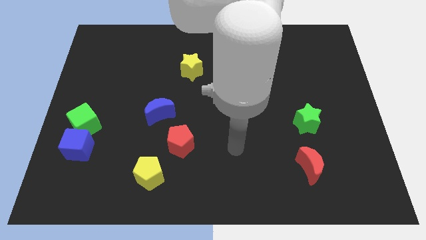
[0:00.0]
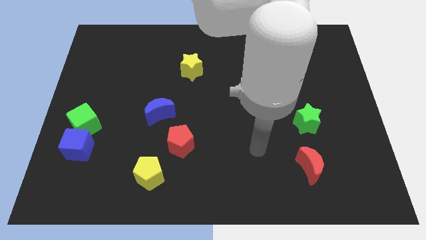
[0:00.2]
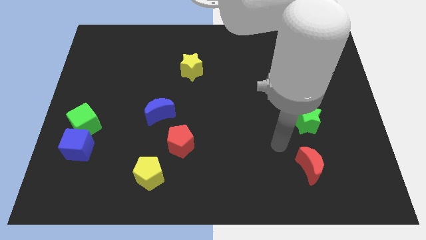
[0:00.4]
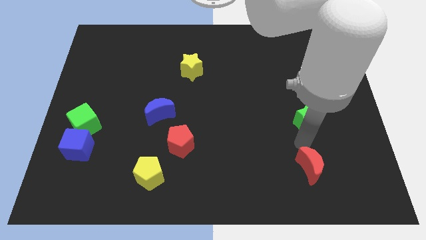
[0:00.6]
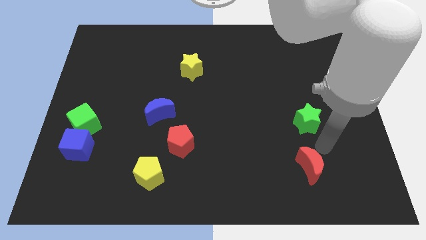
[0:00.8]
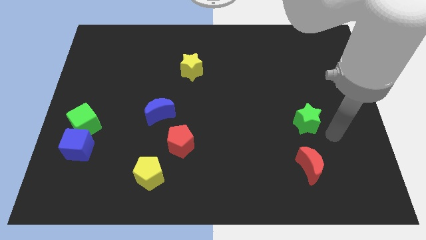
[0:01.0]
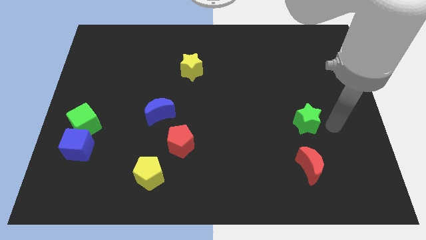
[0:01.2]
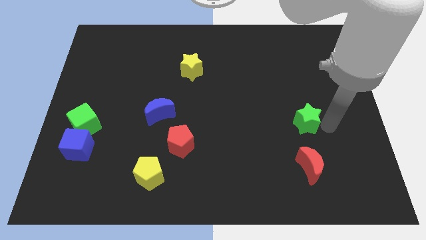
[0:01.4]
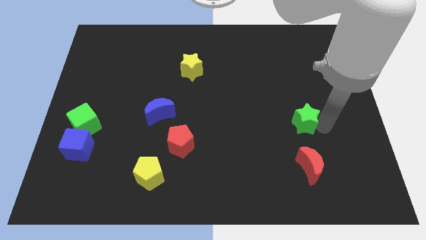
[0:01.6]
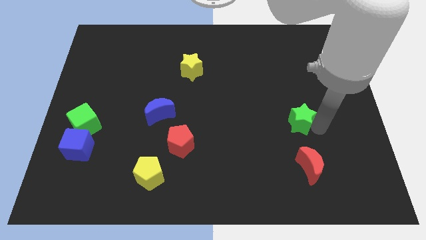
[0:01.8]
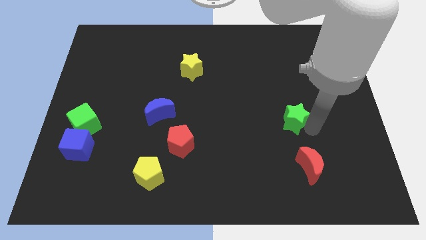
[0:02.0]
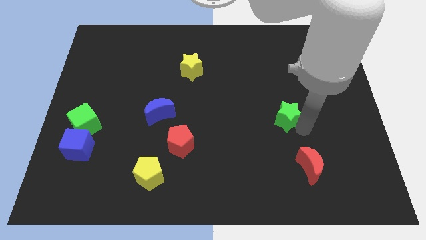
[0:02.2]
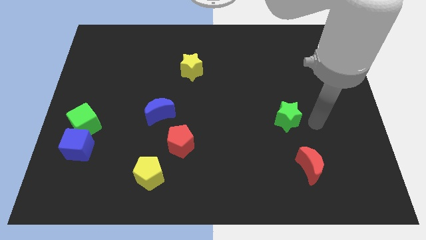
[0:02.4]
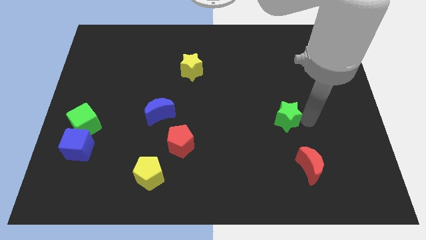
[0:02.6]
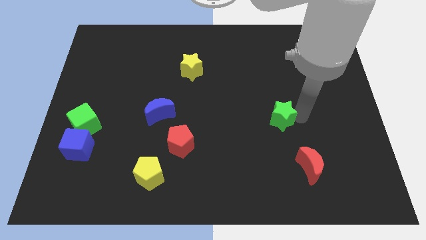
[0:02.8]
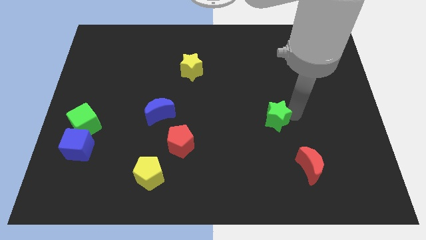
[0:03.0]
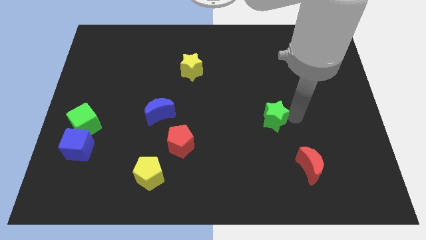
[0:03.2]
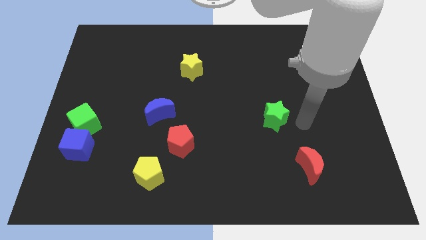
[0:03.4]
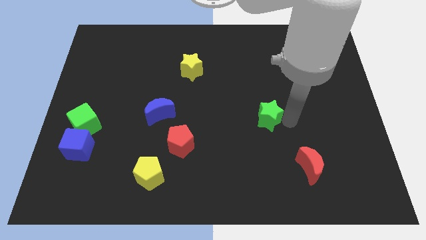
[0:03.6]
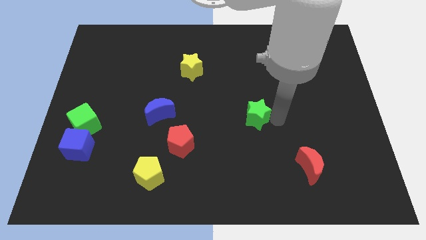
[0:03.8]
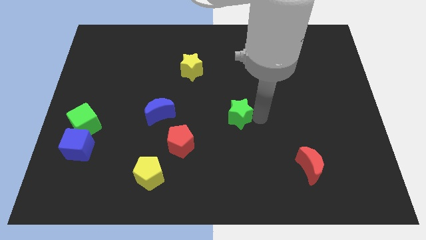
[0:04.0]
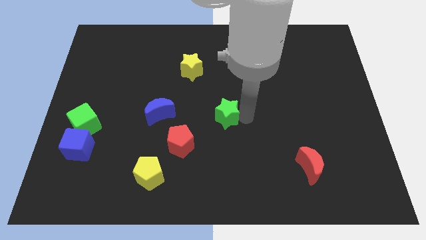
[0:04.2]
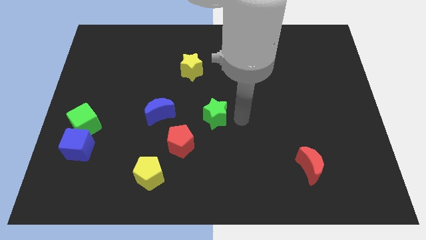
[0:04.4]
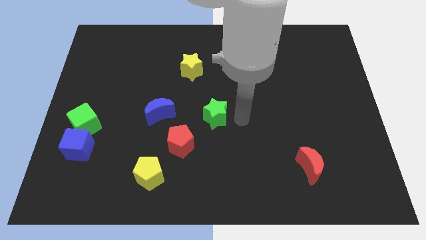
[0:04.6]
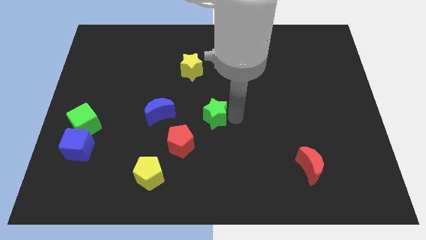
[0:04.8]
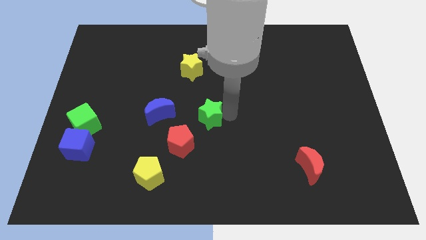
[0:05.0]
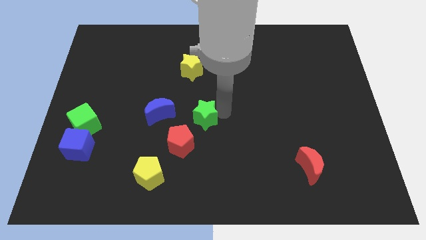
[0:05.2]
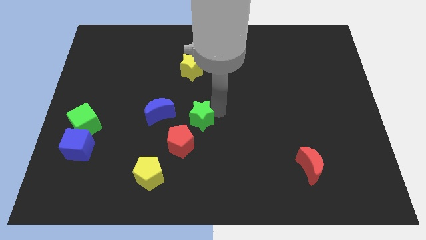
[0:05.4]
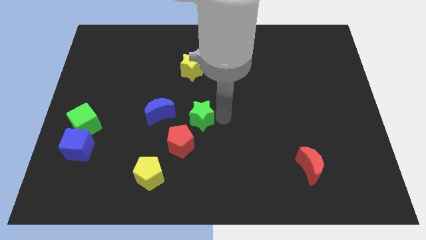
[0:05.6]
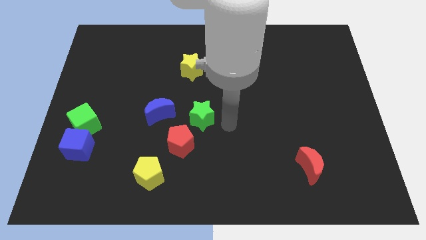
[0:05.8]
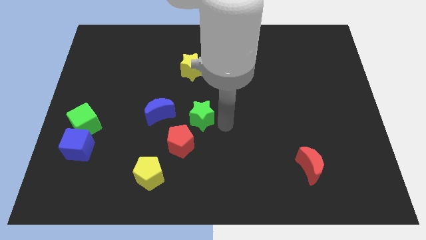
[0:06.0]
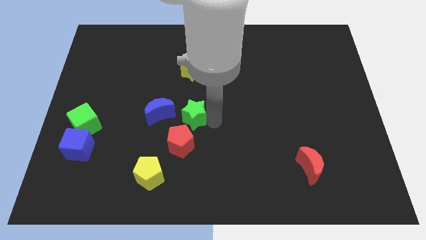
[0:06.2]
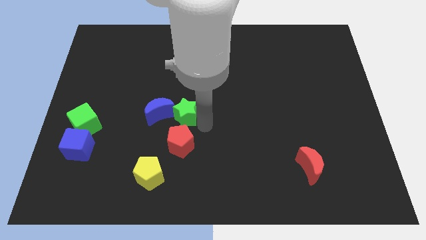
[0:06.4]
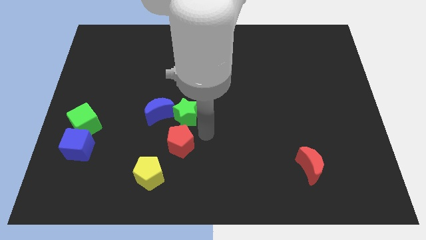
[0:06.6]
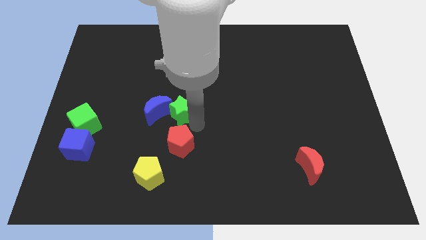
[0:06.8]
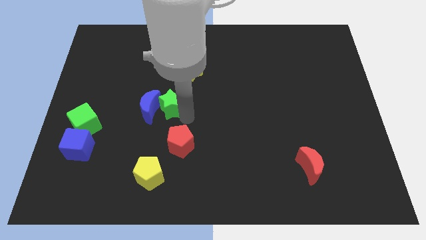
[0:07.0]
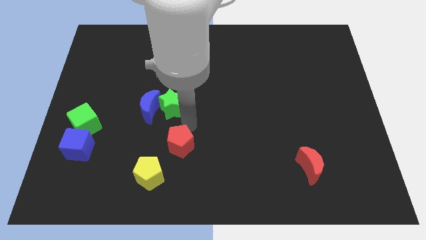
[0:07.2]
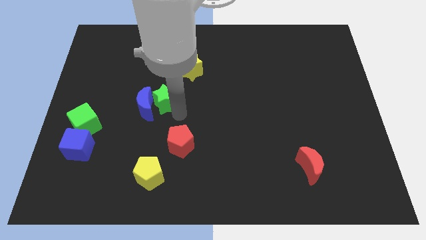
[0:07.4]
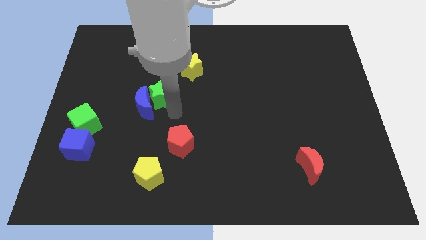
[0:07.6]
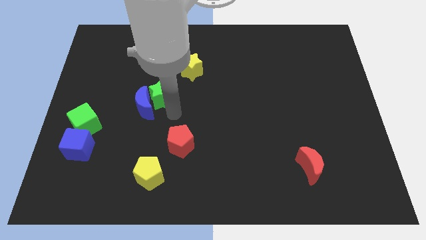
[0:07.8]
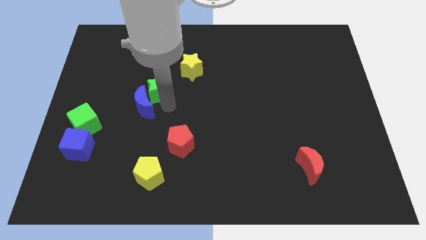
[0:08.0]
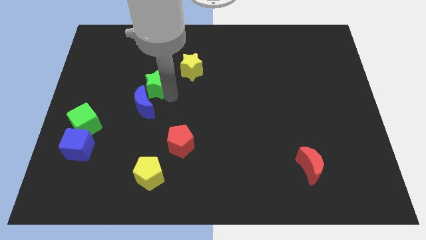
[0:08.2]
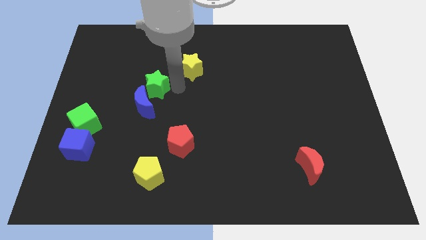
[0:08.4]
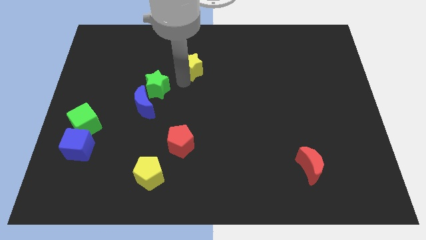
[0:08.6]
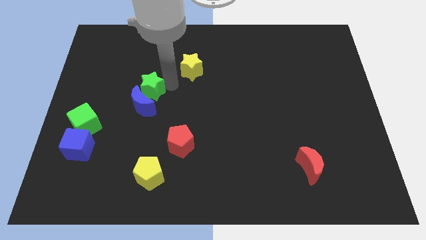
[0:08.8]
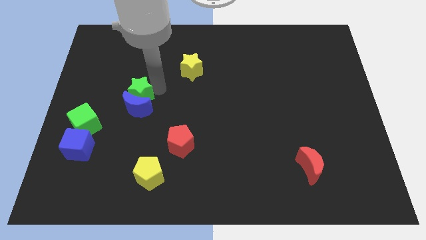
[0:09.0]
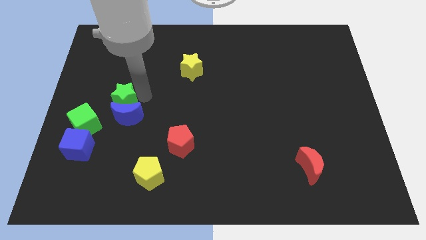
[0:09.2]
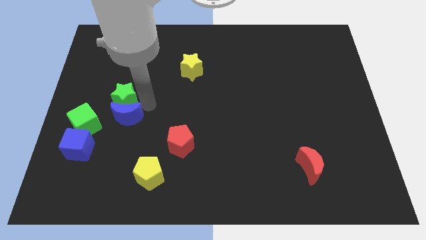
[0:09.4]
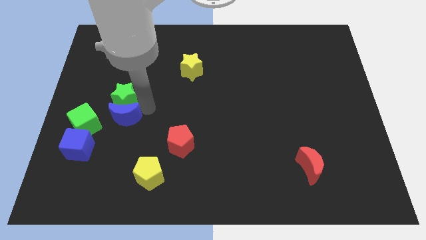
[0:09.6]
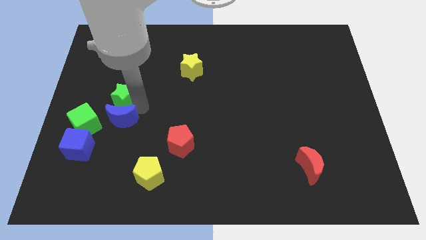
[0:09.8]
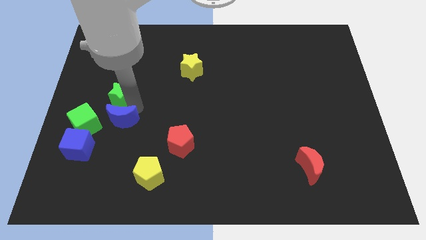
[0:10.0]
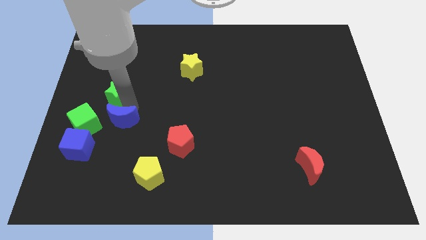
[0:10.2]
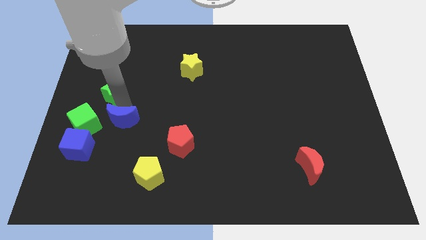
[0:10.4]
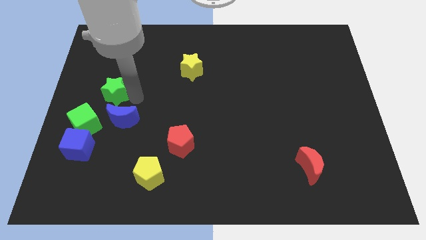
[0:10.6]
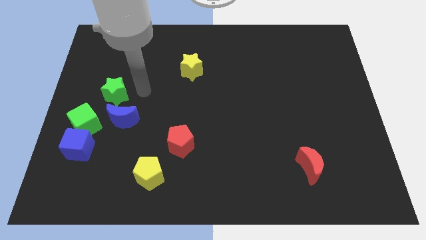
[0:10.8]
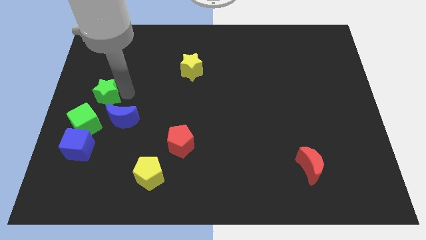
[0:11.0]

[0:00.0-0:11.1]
slide the green star to the center left

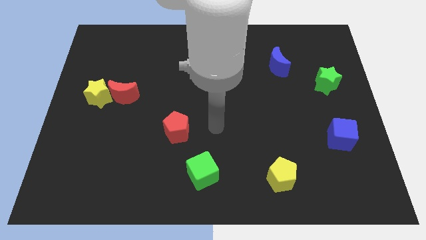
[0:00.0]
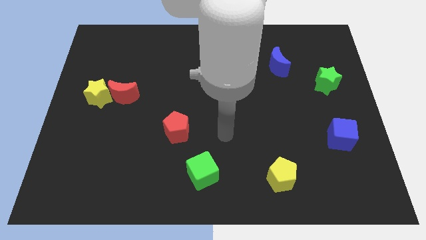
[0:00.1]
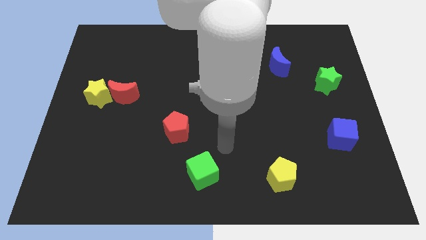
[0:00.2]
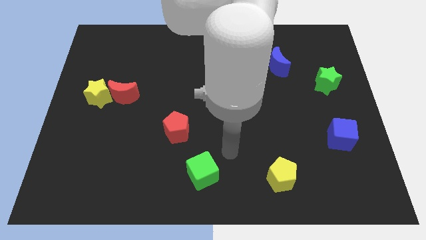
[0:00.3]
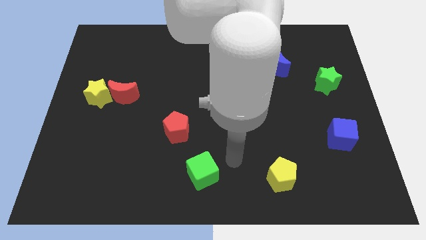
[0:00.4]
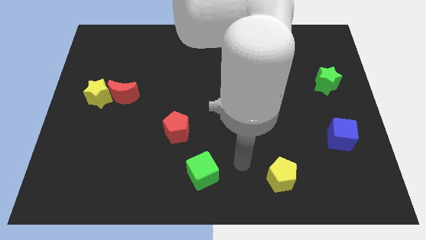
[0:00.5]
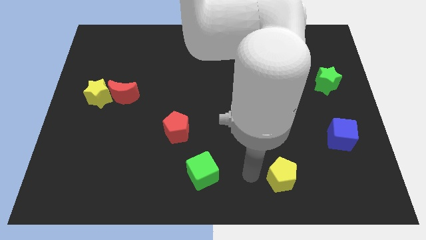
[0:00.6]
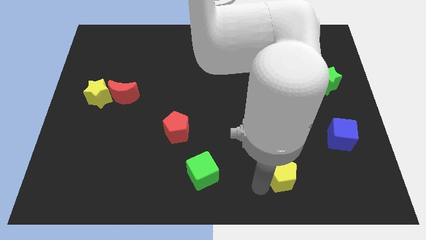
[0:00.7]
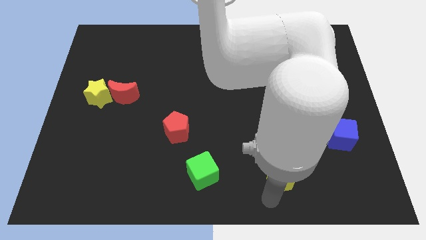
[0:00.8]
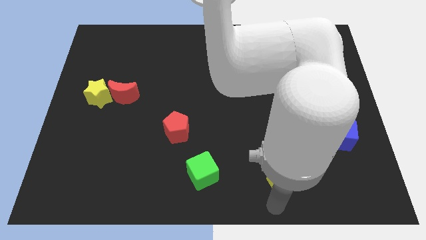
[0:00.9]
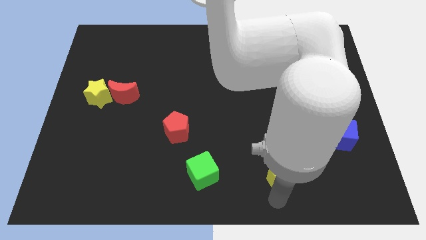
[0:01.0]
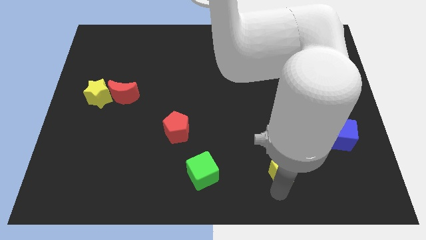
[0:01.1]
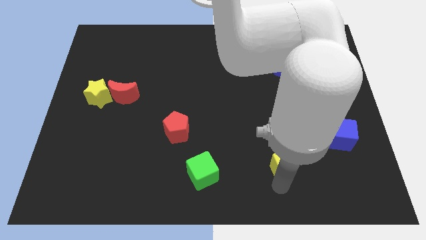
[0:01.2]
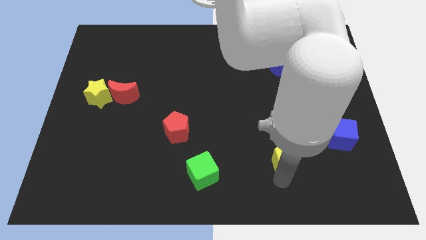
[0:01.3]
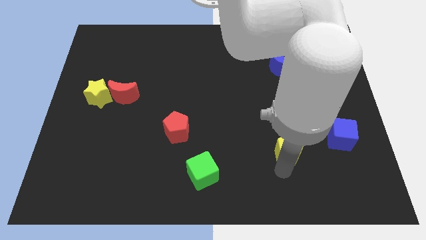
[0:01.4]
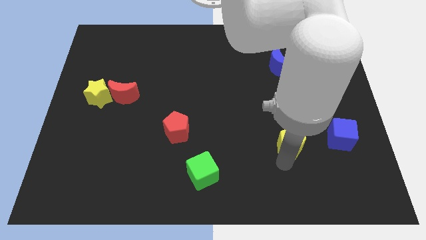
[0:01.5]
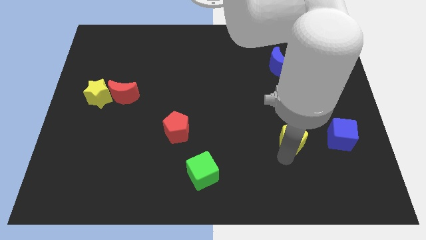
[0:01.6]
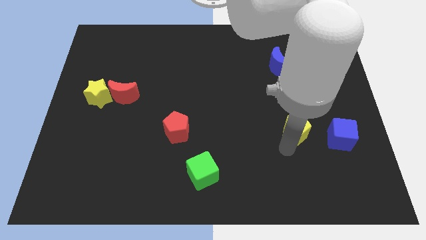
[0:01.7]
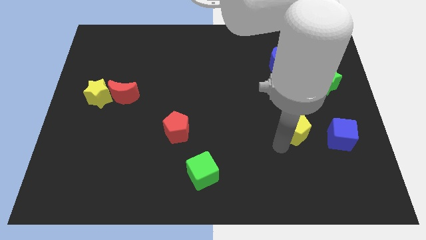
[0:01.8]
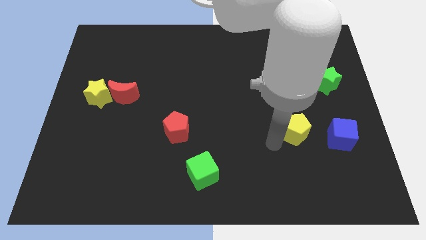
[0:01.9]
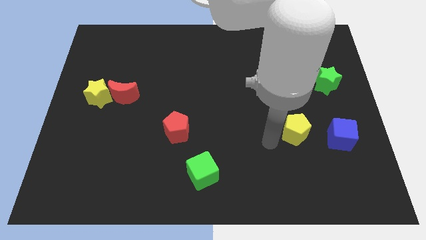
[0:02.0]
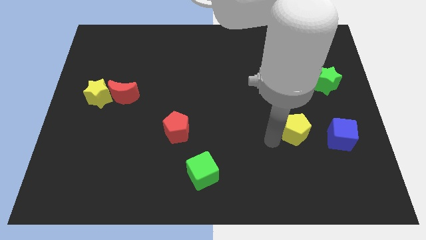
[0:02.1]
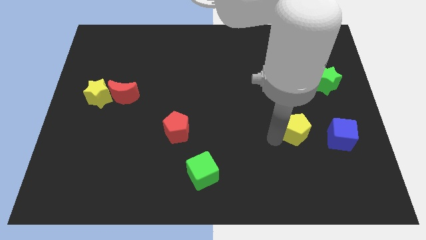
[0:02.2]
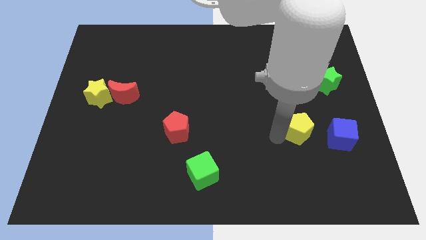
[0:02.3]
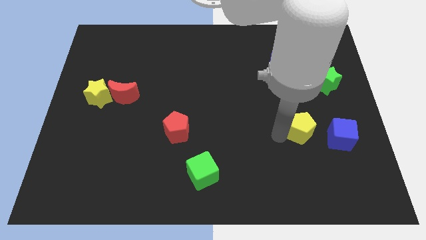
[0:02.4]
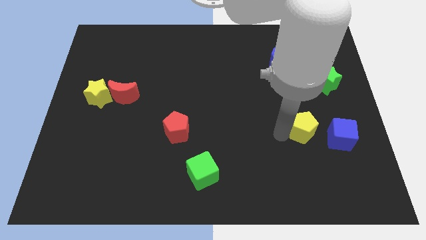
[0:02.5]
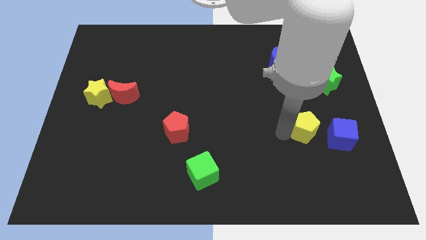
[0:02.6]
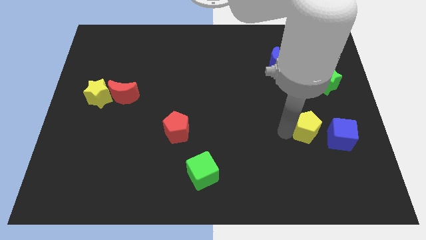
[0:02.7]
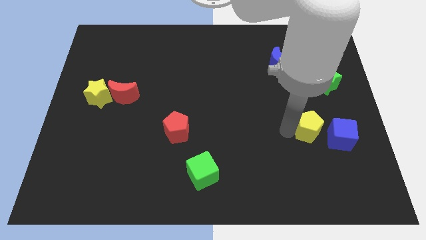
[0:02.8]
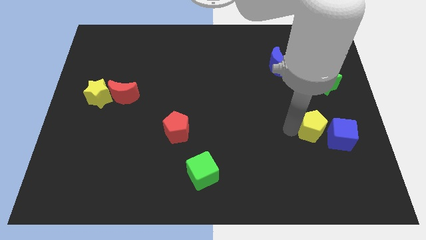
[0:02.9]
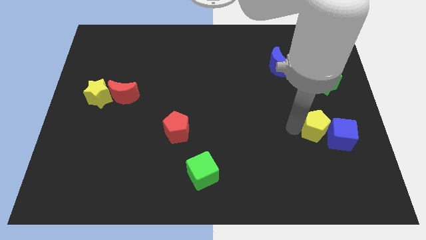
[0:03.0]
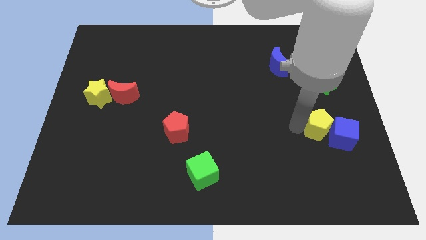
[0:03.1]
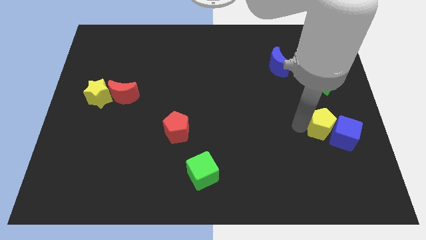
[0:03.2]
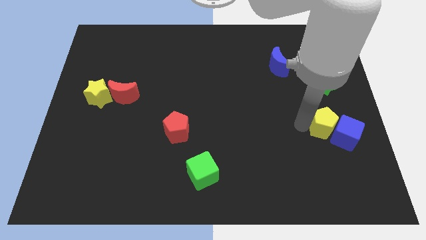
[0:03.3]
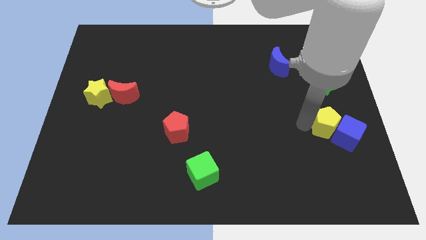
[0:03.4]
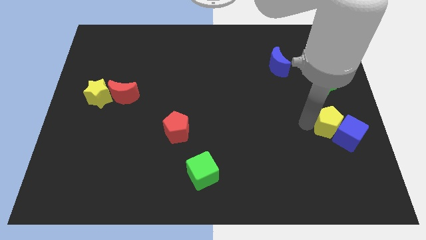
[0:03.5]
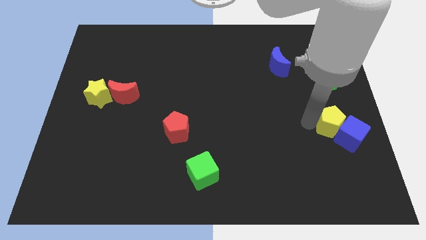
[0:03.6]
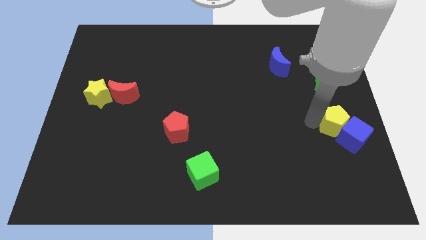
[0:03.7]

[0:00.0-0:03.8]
push the yellow pentagon to the right side of the board
